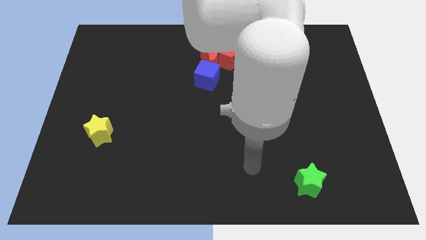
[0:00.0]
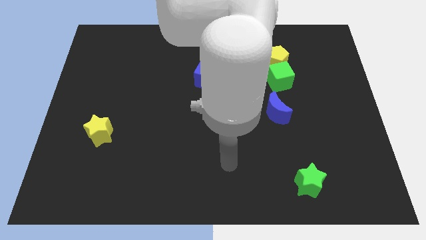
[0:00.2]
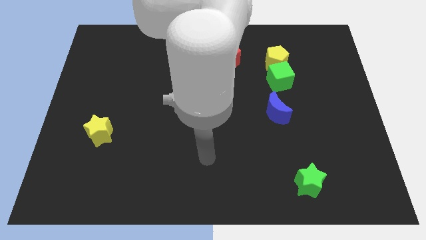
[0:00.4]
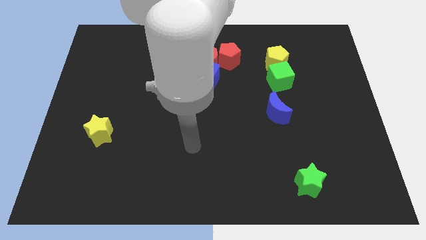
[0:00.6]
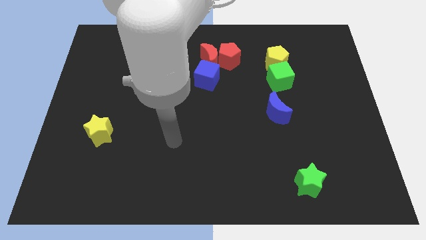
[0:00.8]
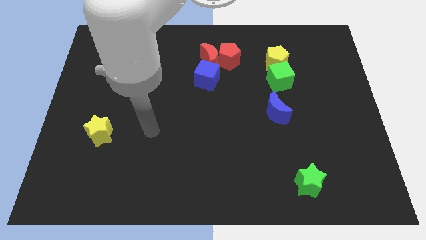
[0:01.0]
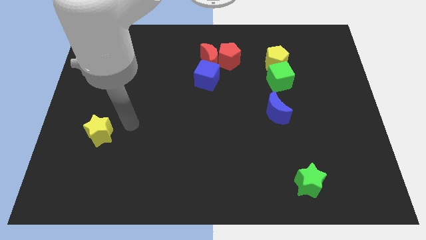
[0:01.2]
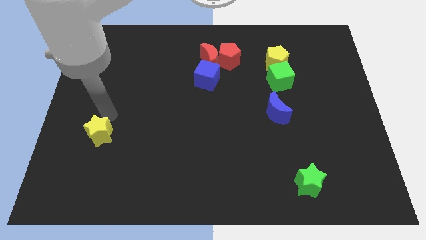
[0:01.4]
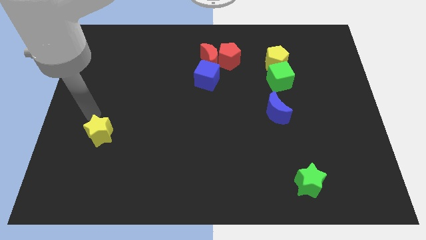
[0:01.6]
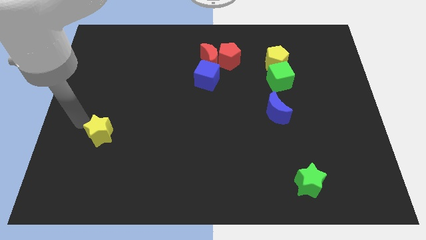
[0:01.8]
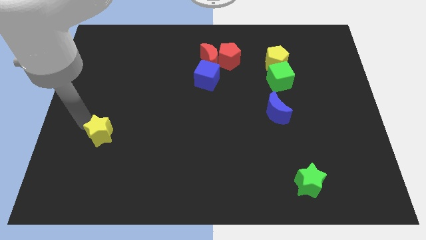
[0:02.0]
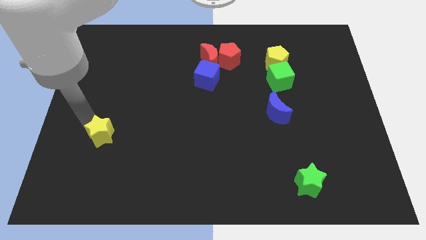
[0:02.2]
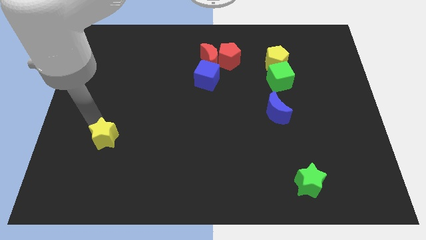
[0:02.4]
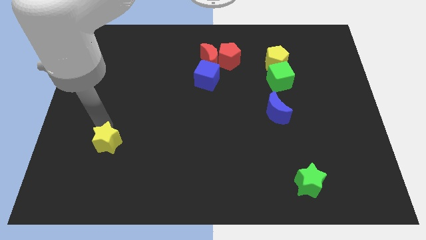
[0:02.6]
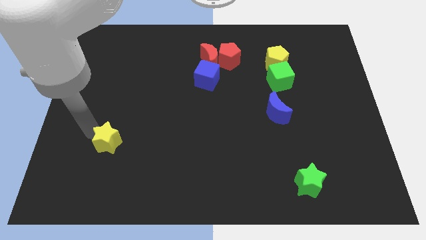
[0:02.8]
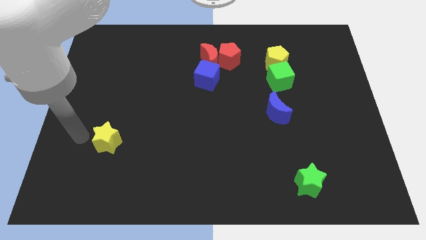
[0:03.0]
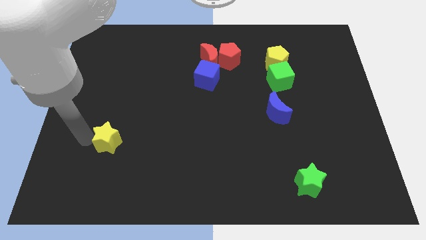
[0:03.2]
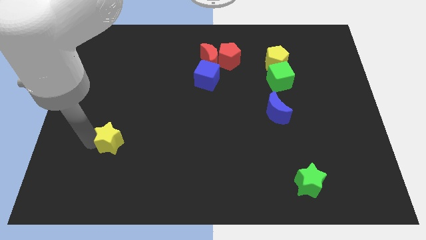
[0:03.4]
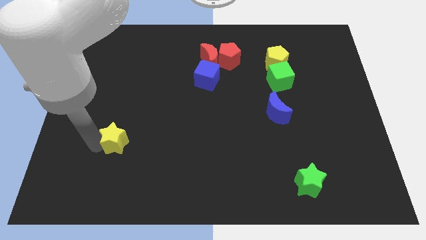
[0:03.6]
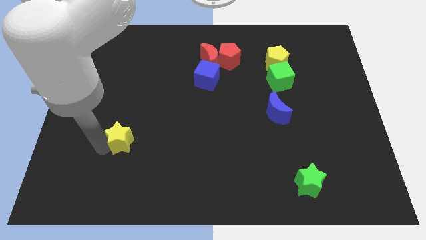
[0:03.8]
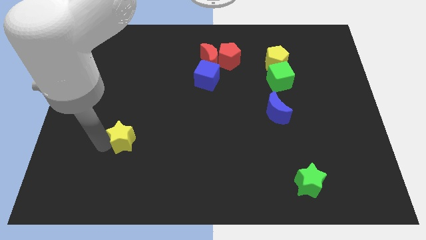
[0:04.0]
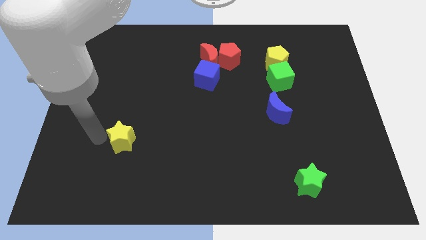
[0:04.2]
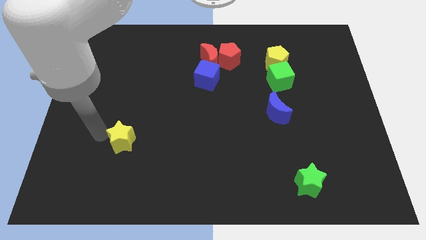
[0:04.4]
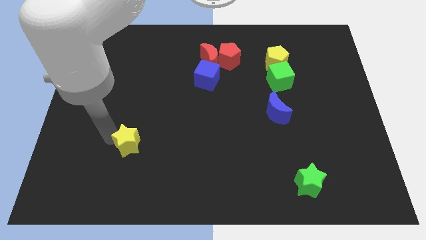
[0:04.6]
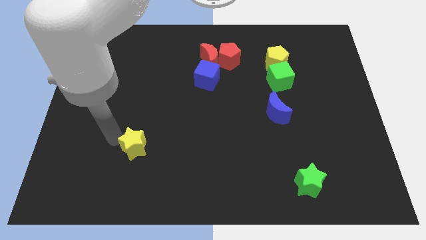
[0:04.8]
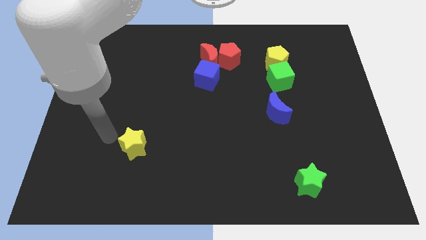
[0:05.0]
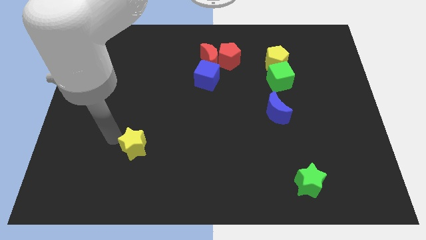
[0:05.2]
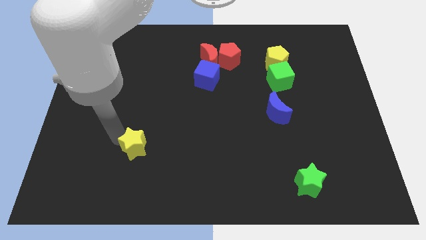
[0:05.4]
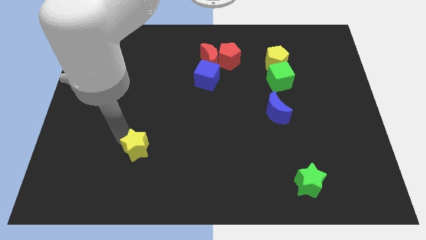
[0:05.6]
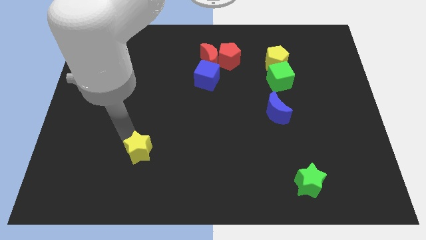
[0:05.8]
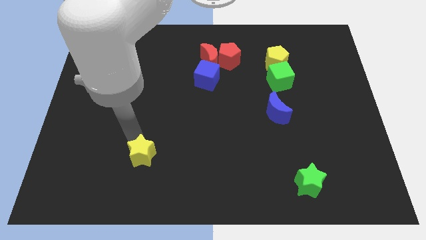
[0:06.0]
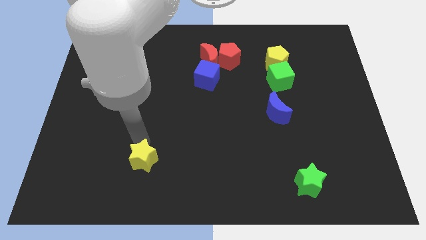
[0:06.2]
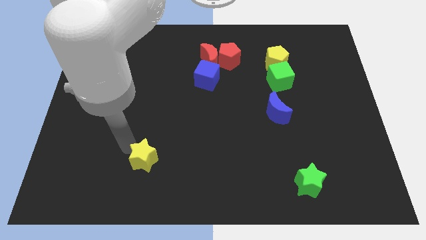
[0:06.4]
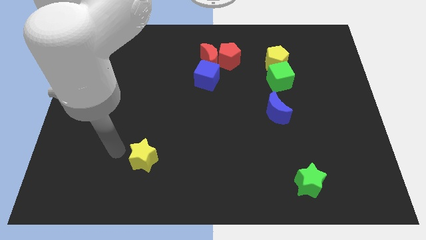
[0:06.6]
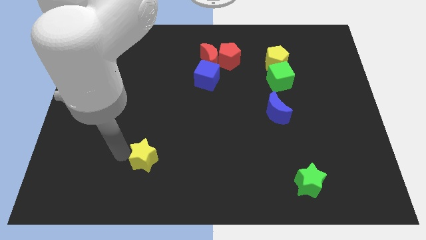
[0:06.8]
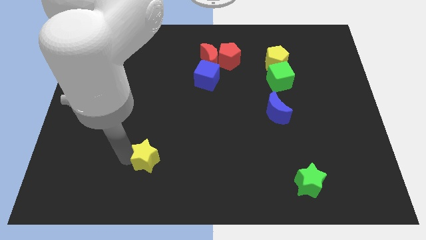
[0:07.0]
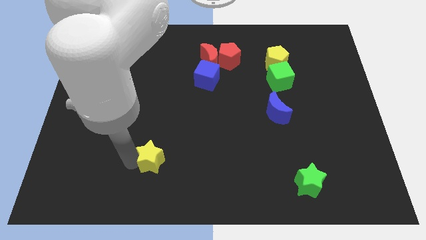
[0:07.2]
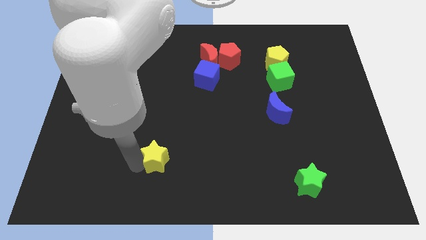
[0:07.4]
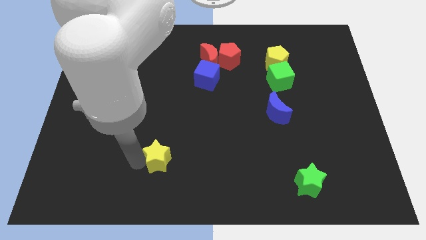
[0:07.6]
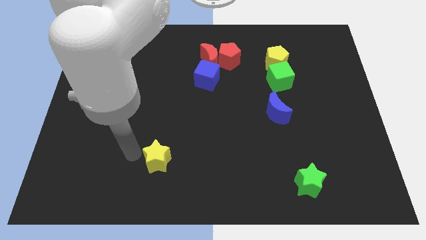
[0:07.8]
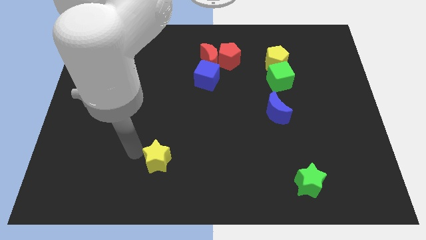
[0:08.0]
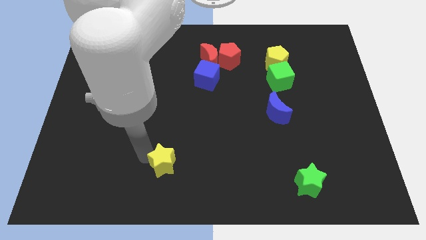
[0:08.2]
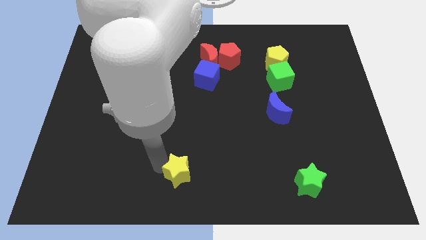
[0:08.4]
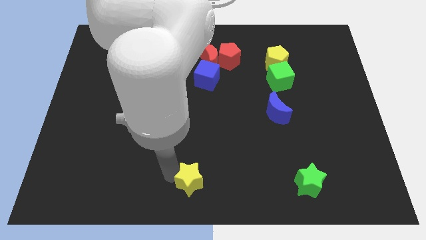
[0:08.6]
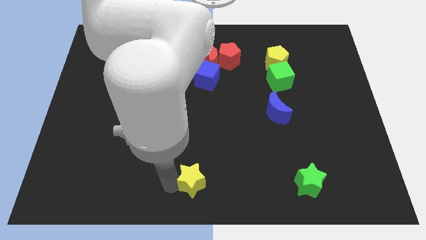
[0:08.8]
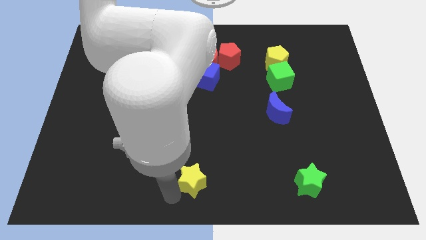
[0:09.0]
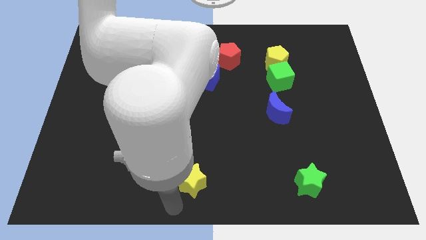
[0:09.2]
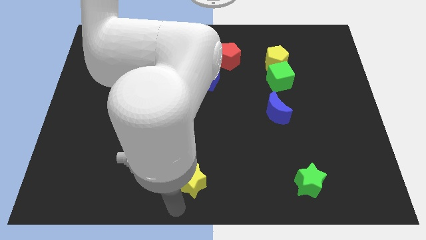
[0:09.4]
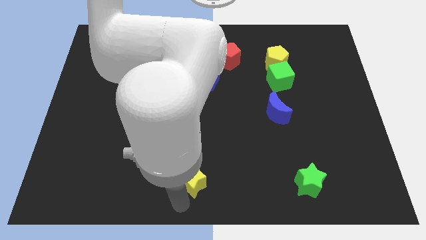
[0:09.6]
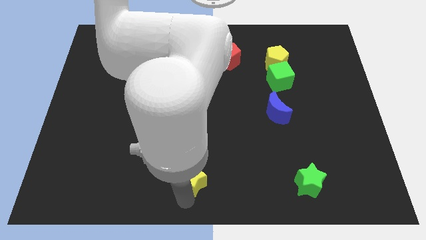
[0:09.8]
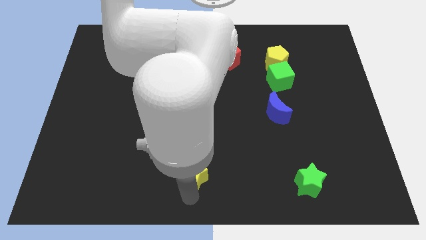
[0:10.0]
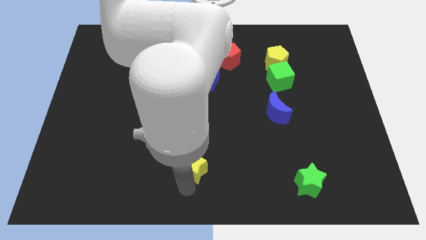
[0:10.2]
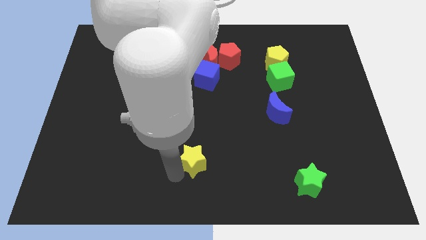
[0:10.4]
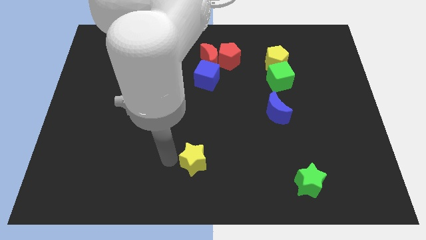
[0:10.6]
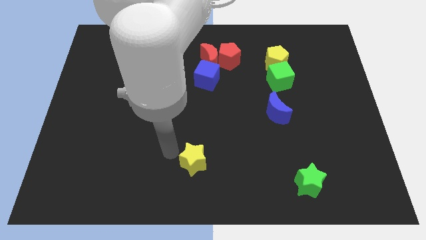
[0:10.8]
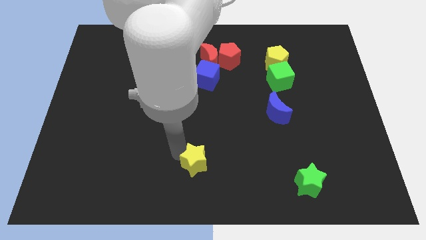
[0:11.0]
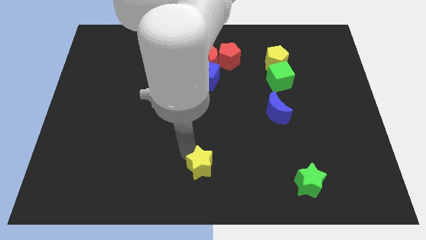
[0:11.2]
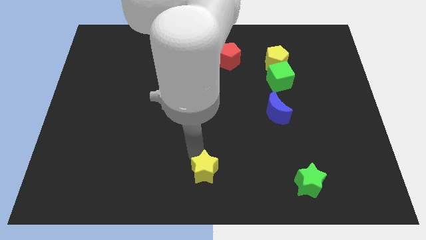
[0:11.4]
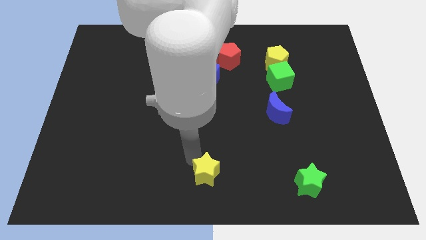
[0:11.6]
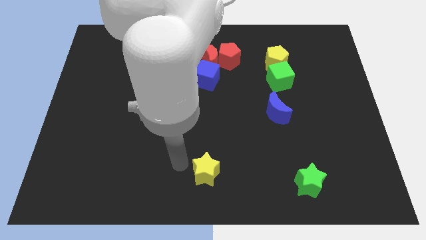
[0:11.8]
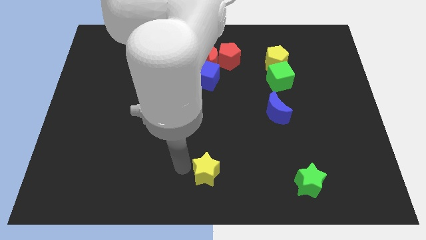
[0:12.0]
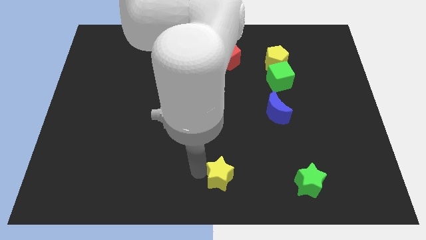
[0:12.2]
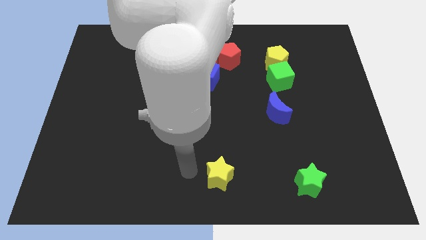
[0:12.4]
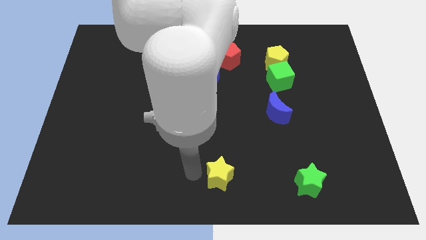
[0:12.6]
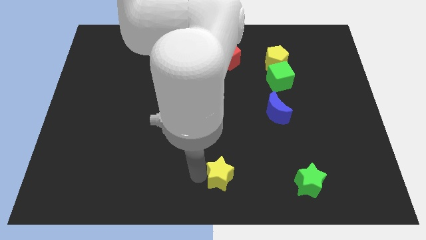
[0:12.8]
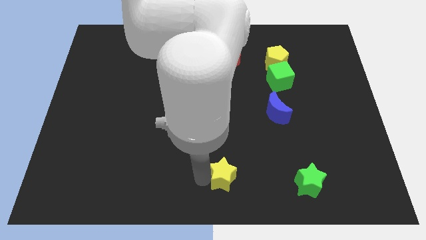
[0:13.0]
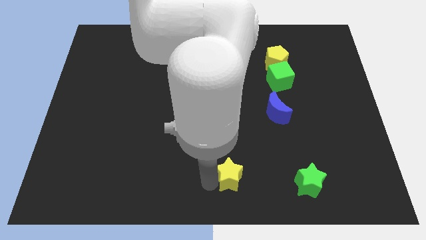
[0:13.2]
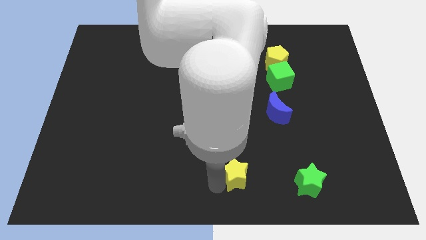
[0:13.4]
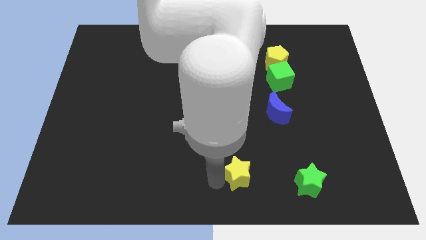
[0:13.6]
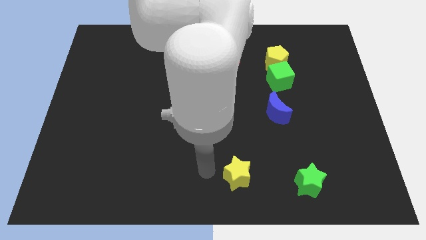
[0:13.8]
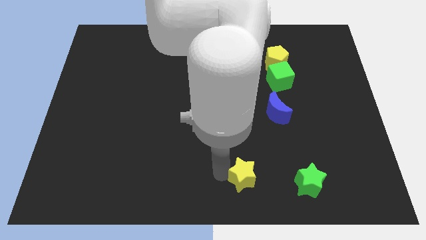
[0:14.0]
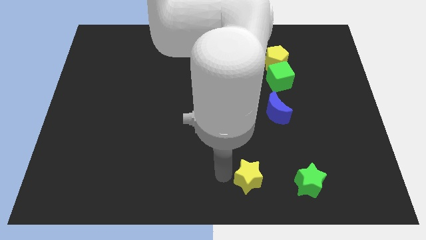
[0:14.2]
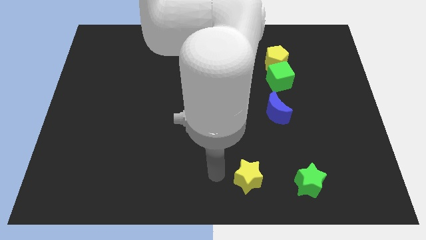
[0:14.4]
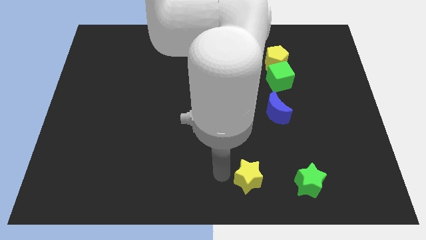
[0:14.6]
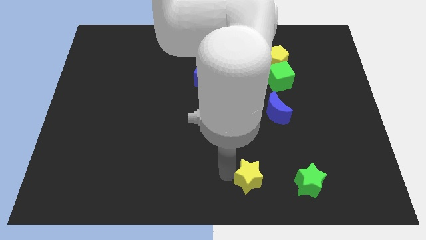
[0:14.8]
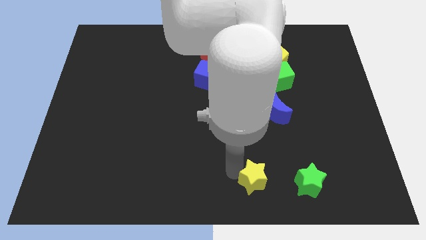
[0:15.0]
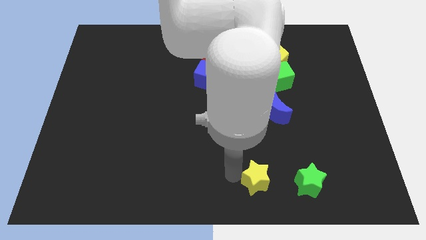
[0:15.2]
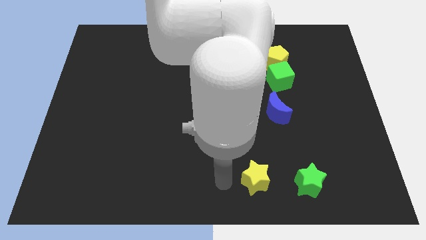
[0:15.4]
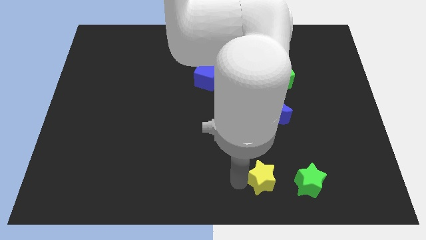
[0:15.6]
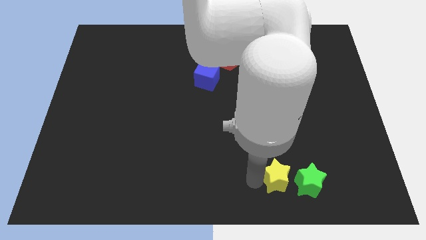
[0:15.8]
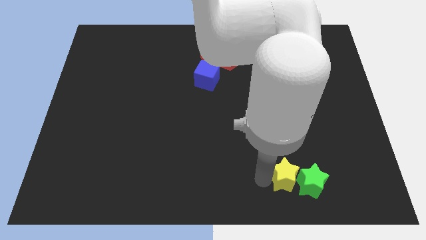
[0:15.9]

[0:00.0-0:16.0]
slide the yellow star close to the green star
